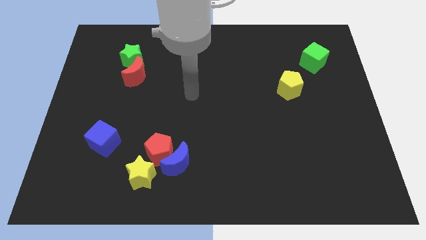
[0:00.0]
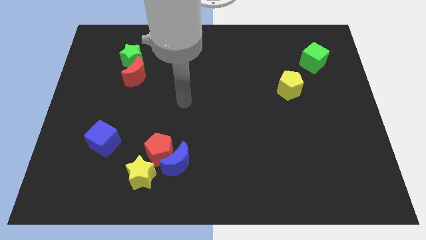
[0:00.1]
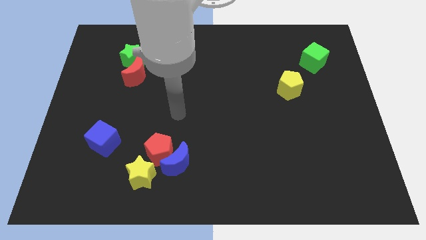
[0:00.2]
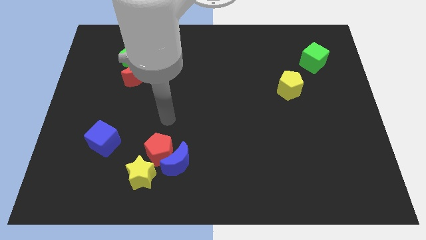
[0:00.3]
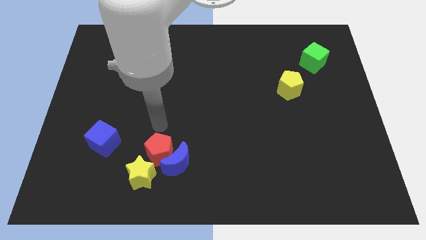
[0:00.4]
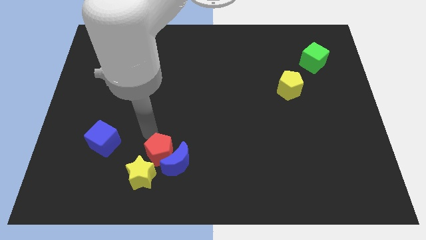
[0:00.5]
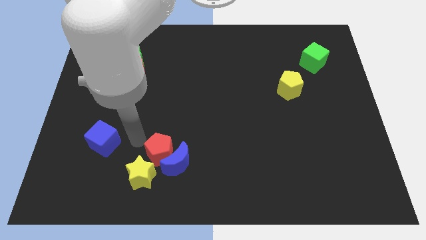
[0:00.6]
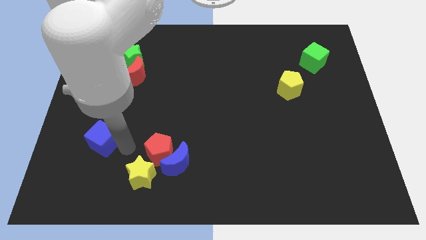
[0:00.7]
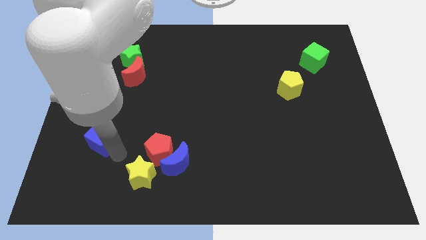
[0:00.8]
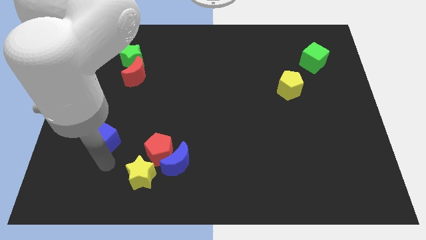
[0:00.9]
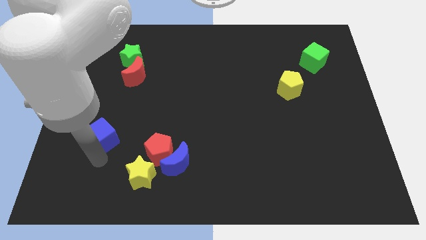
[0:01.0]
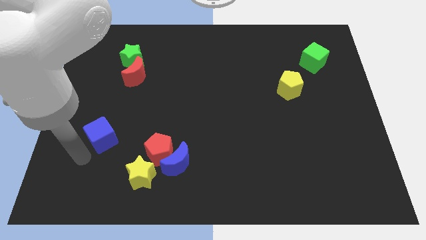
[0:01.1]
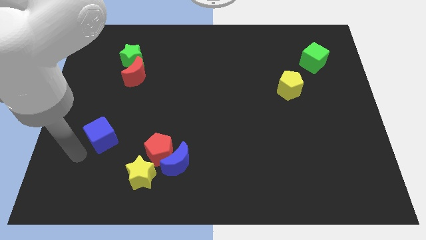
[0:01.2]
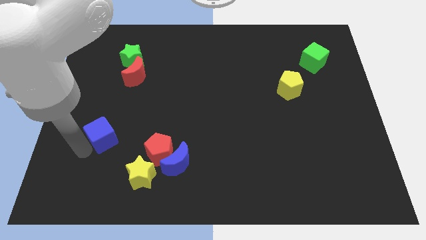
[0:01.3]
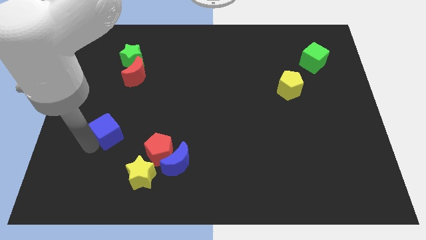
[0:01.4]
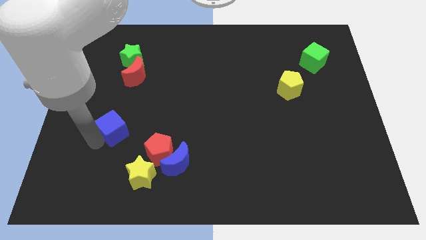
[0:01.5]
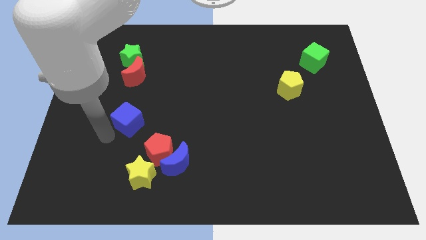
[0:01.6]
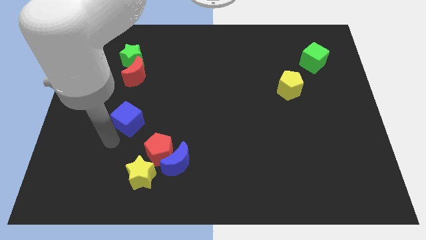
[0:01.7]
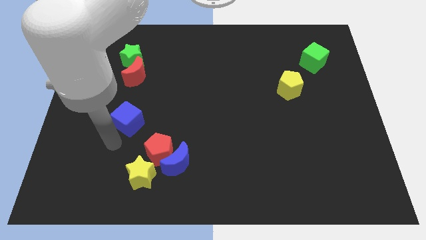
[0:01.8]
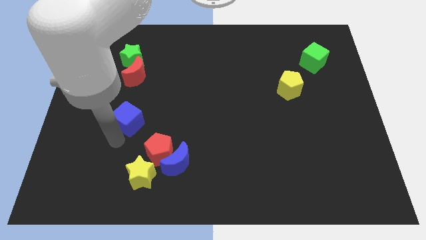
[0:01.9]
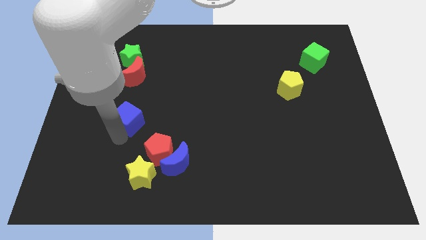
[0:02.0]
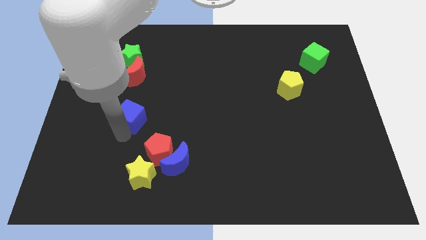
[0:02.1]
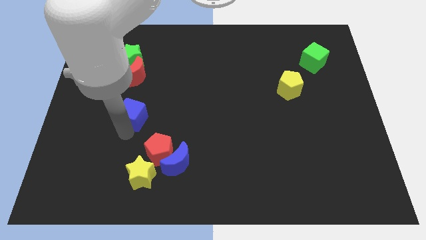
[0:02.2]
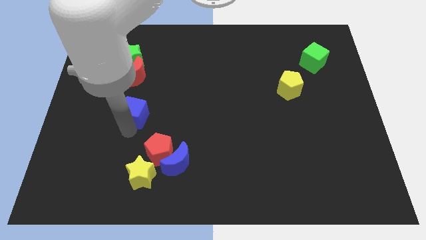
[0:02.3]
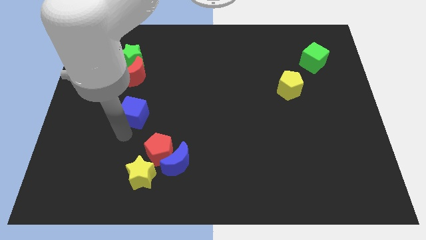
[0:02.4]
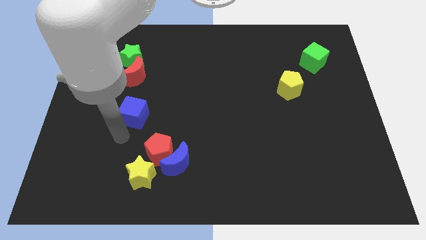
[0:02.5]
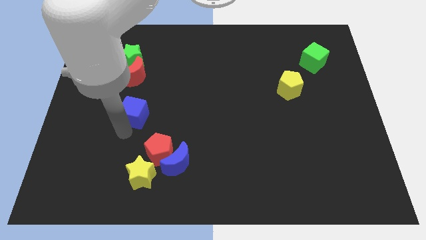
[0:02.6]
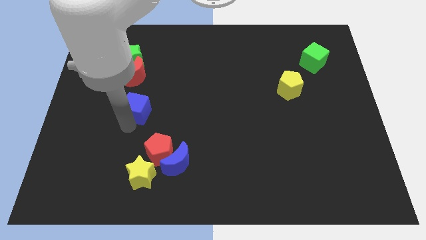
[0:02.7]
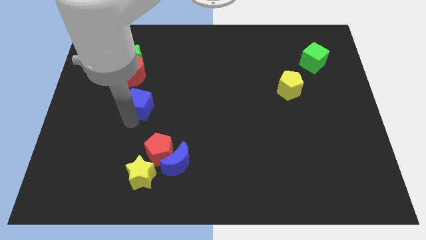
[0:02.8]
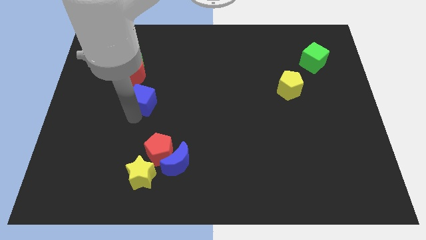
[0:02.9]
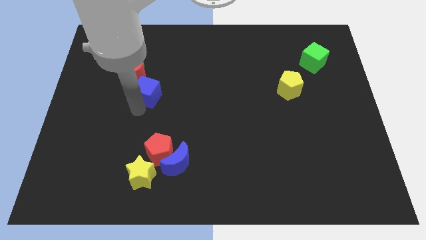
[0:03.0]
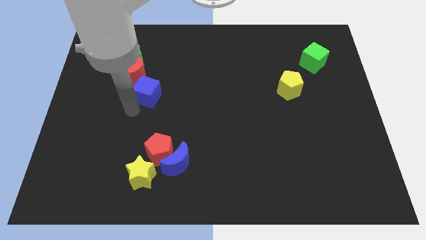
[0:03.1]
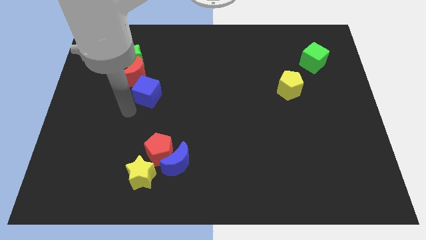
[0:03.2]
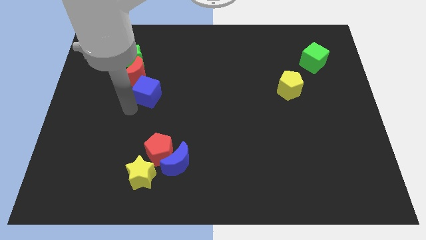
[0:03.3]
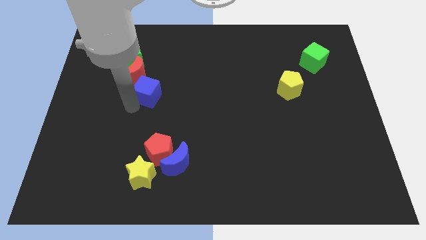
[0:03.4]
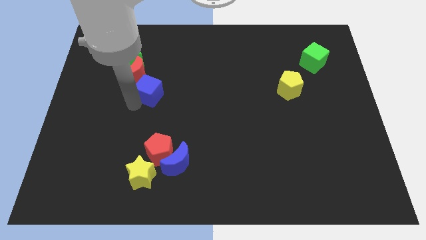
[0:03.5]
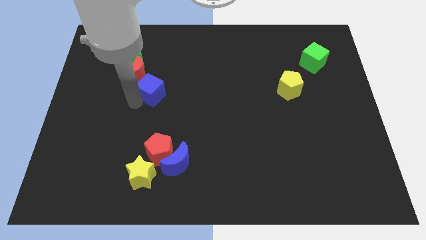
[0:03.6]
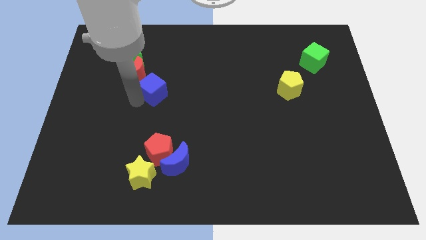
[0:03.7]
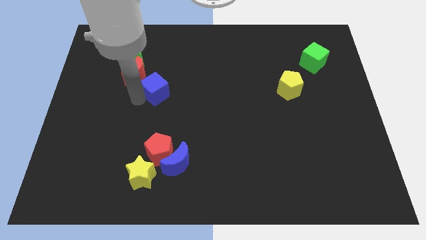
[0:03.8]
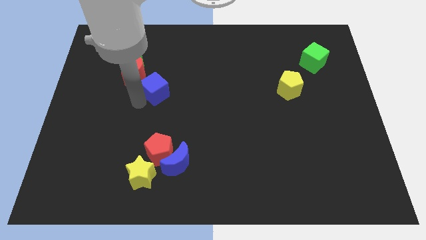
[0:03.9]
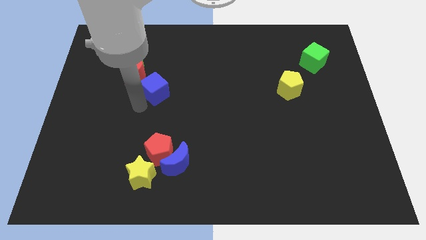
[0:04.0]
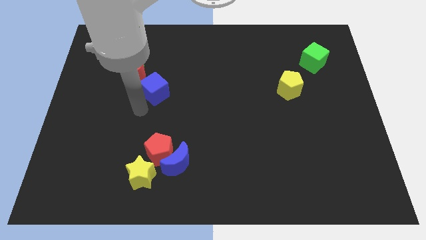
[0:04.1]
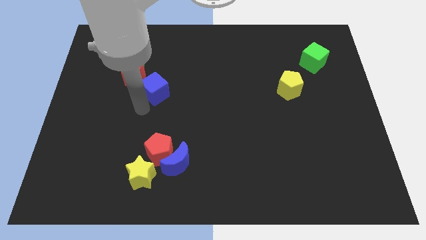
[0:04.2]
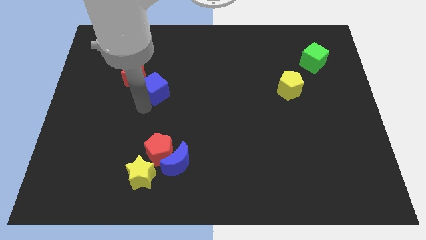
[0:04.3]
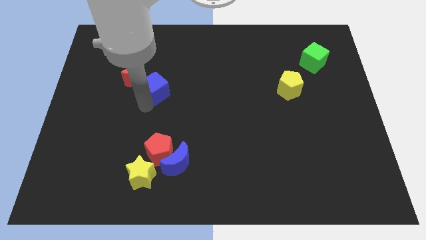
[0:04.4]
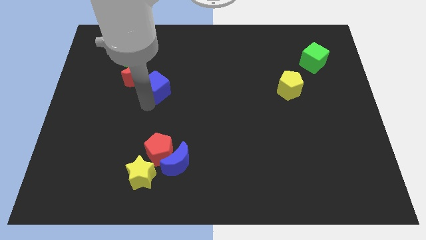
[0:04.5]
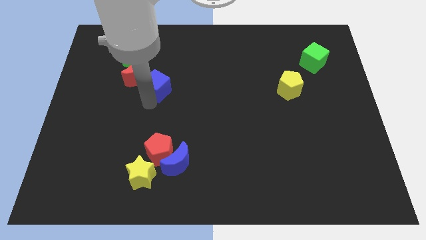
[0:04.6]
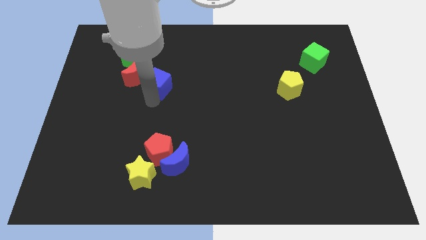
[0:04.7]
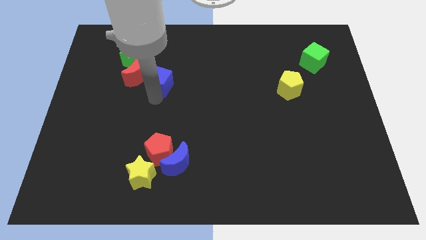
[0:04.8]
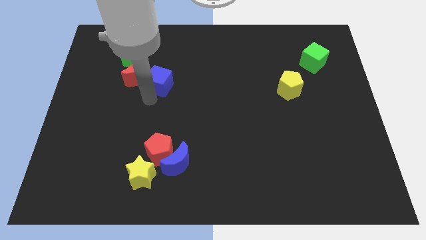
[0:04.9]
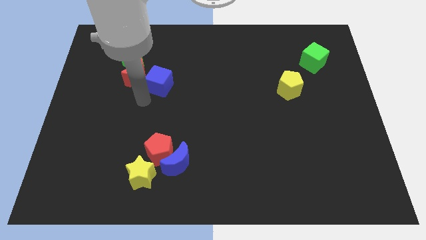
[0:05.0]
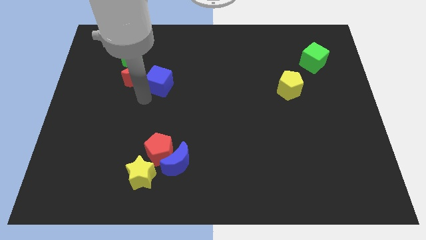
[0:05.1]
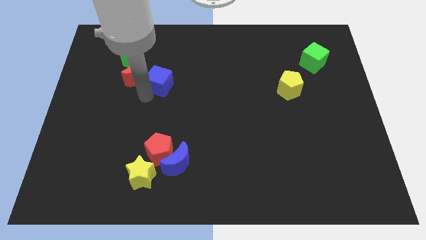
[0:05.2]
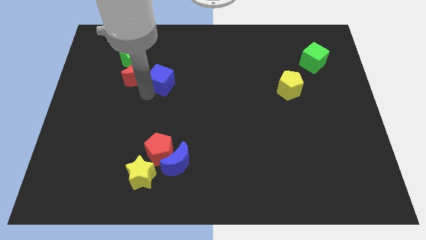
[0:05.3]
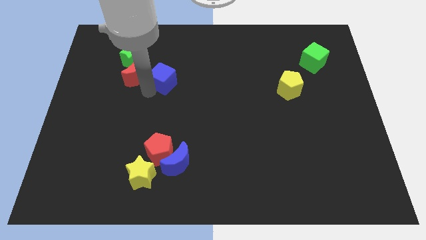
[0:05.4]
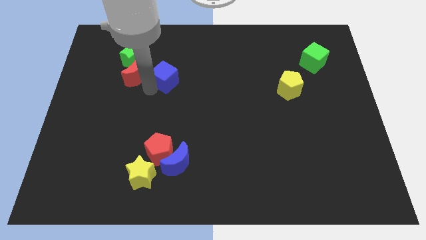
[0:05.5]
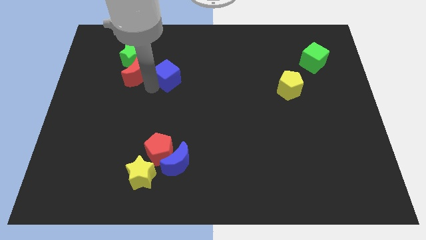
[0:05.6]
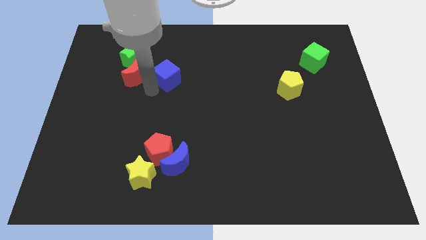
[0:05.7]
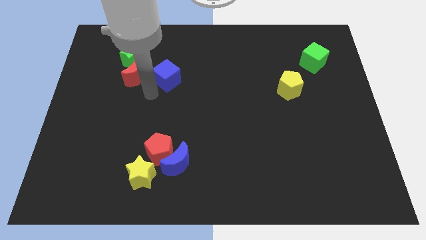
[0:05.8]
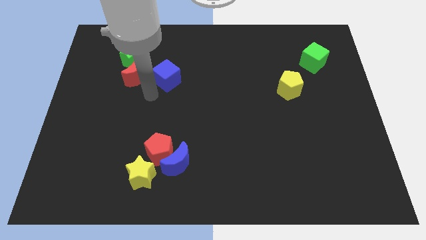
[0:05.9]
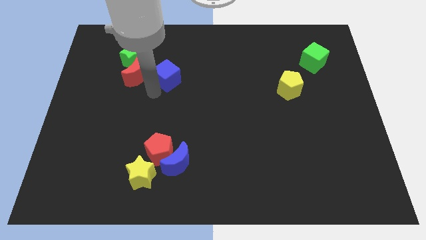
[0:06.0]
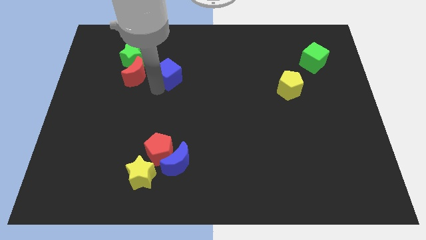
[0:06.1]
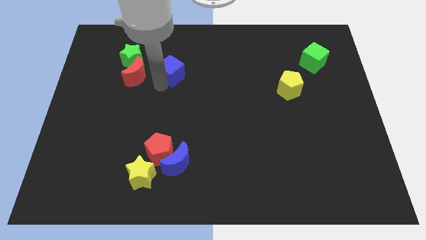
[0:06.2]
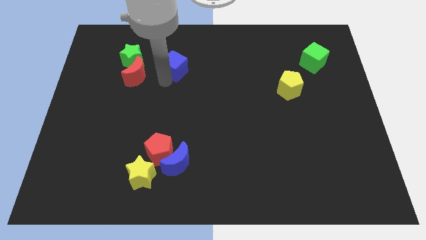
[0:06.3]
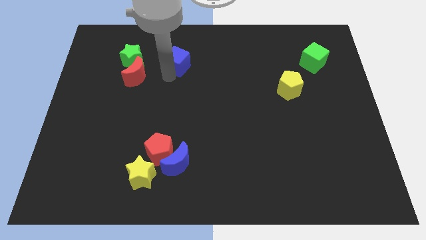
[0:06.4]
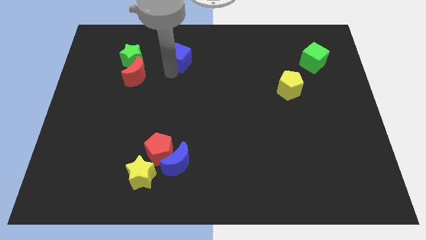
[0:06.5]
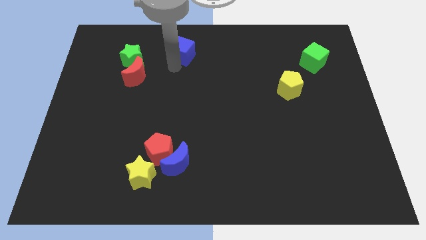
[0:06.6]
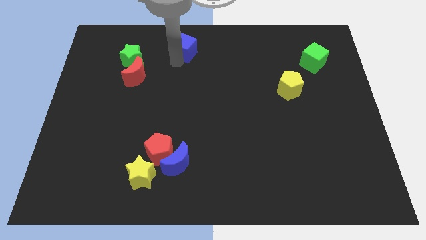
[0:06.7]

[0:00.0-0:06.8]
push the blue cube to the towards your base

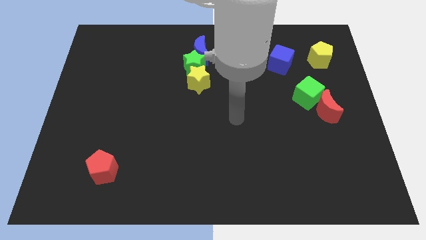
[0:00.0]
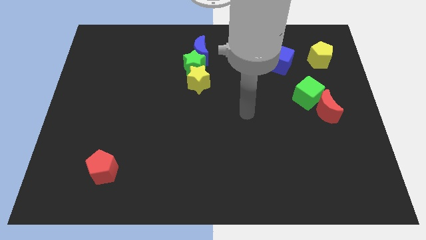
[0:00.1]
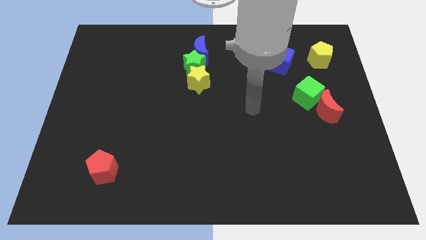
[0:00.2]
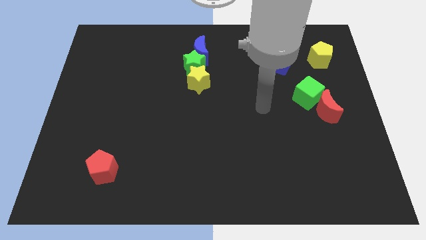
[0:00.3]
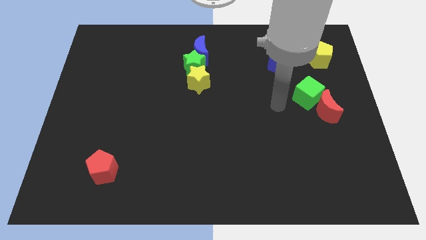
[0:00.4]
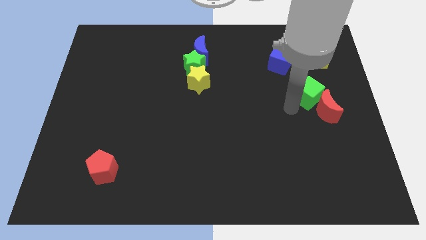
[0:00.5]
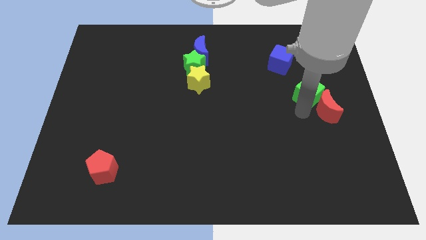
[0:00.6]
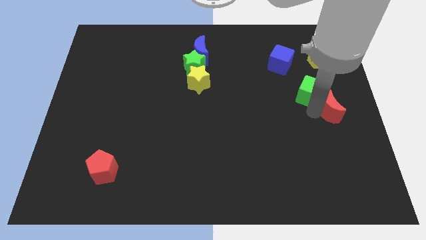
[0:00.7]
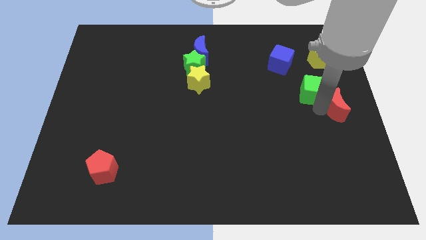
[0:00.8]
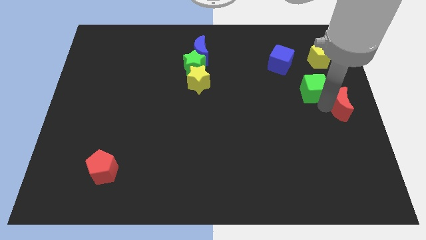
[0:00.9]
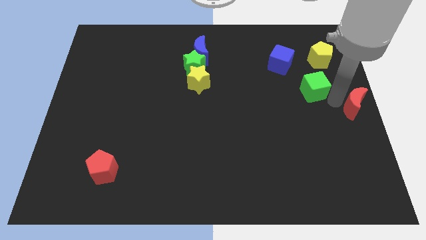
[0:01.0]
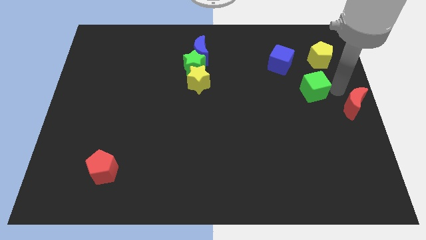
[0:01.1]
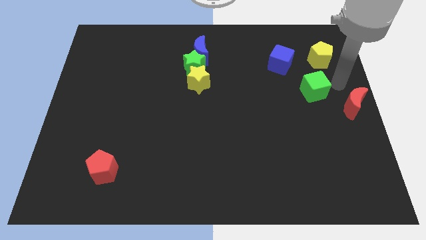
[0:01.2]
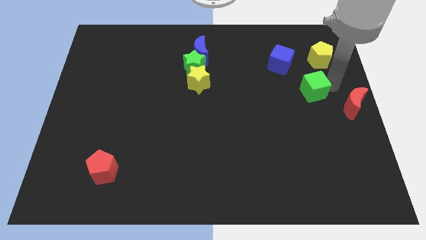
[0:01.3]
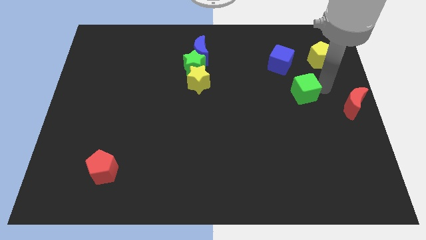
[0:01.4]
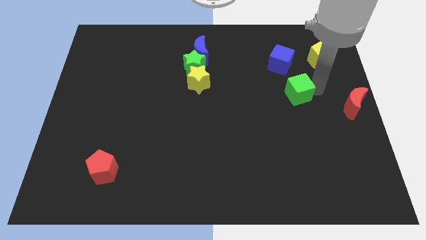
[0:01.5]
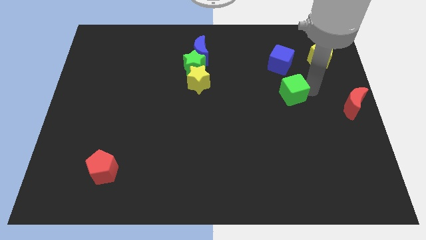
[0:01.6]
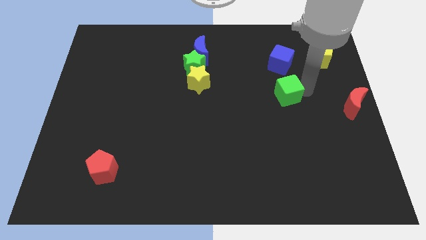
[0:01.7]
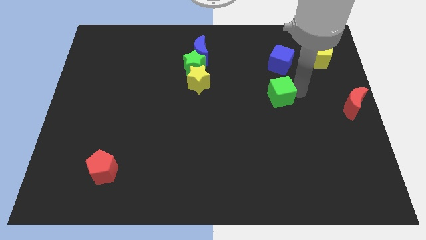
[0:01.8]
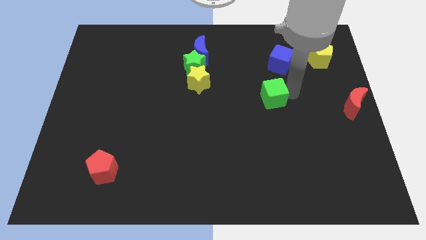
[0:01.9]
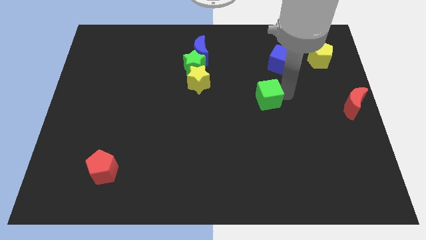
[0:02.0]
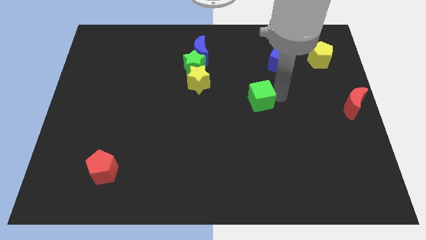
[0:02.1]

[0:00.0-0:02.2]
move the green cube to the middle
